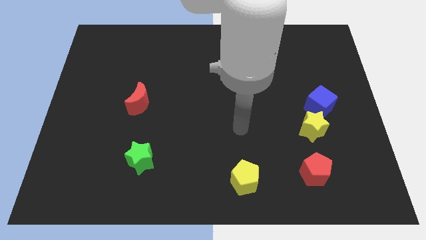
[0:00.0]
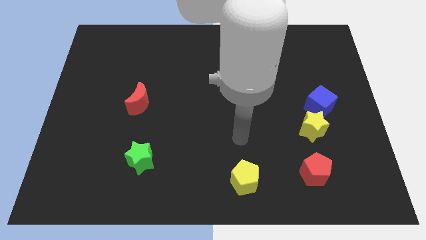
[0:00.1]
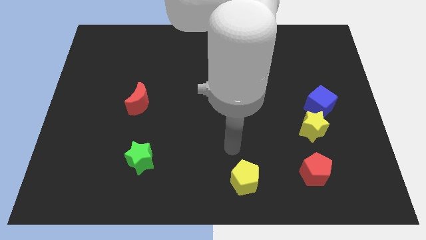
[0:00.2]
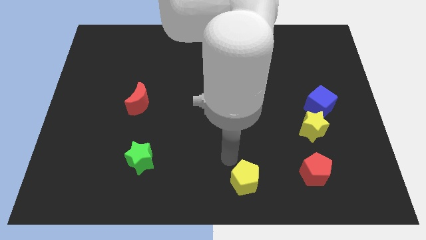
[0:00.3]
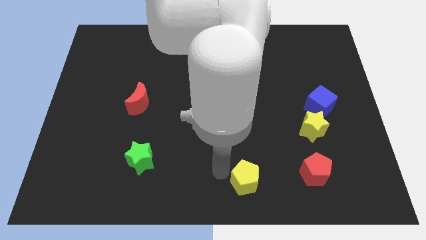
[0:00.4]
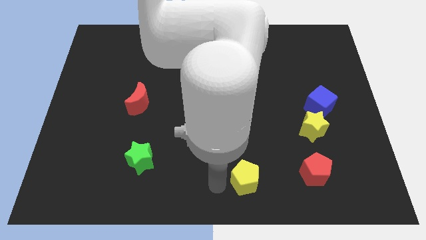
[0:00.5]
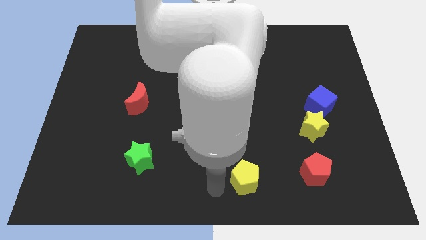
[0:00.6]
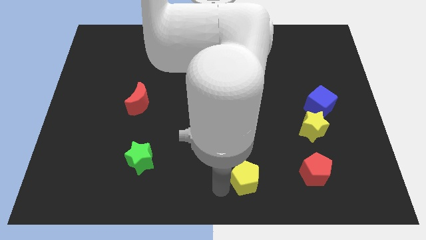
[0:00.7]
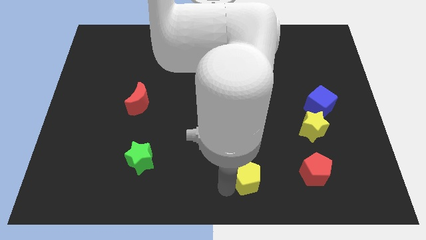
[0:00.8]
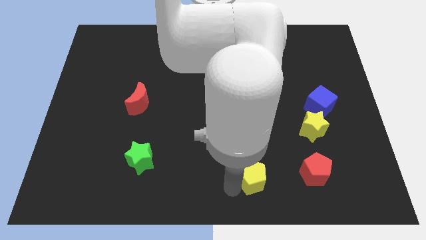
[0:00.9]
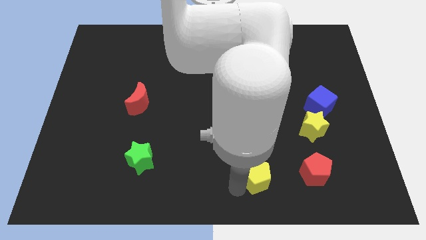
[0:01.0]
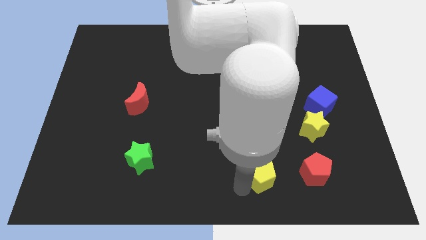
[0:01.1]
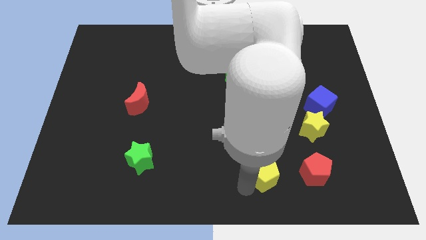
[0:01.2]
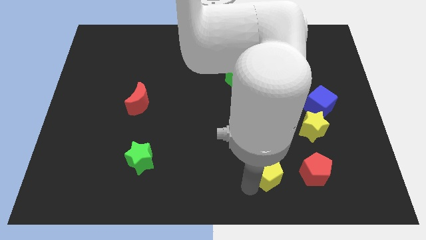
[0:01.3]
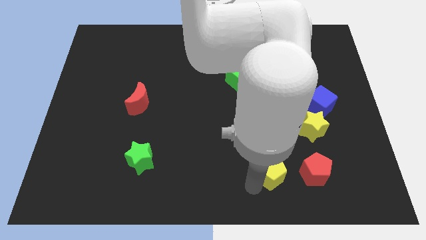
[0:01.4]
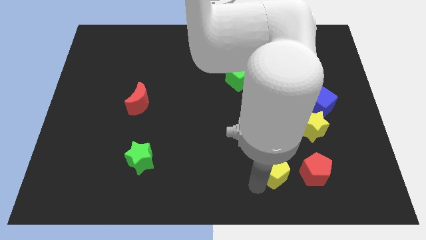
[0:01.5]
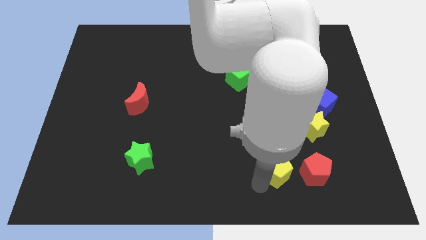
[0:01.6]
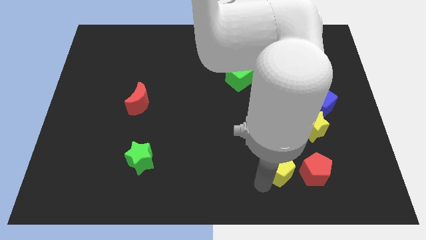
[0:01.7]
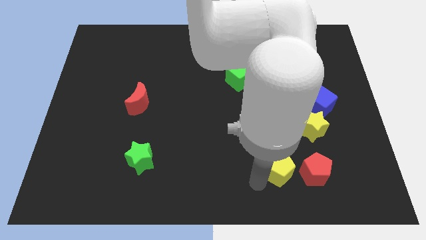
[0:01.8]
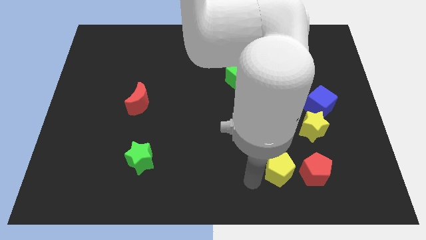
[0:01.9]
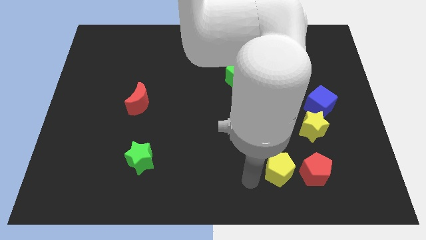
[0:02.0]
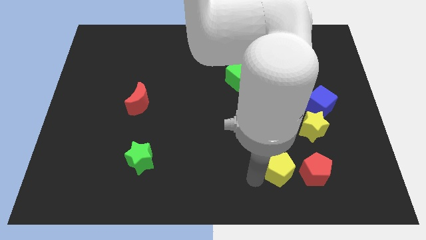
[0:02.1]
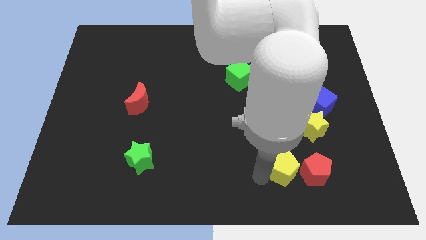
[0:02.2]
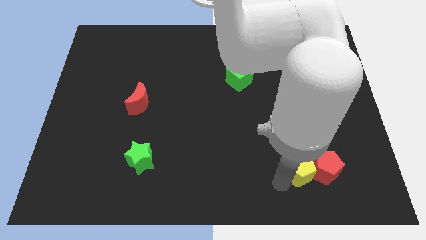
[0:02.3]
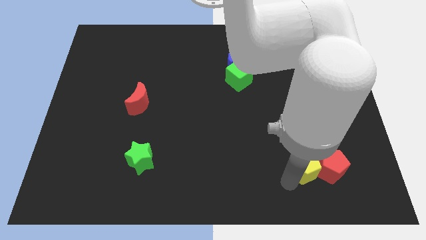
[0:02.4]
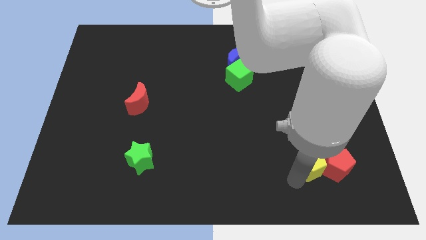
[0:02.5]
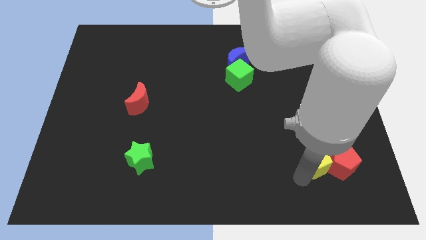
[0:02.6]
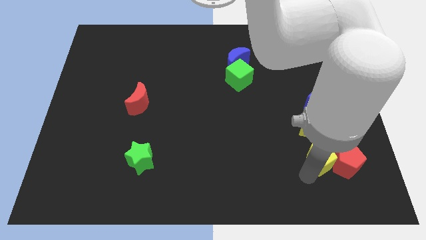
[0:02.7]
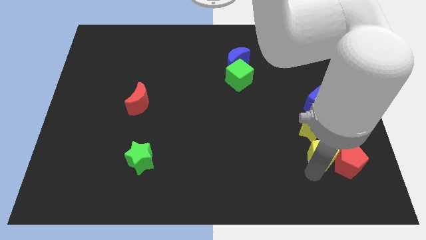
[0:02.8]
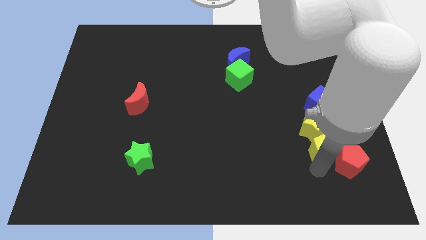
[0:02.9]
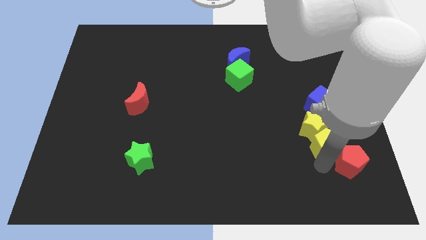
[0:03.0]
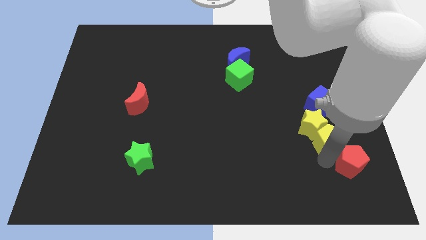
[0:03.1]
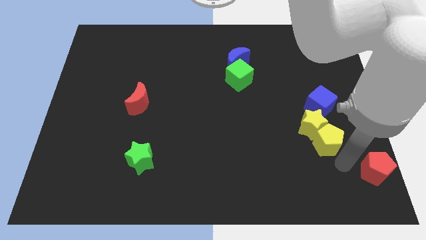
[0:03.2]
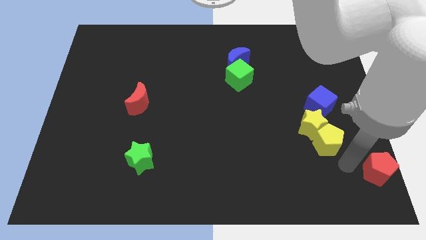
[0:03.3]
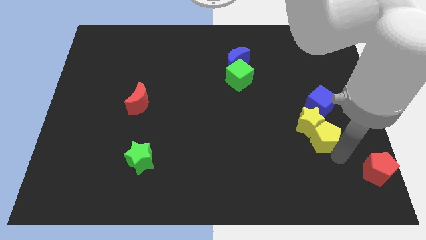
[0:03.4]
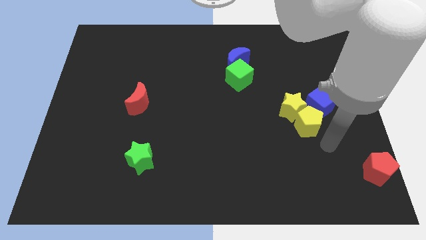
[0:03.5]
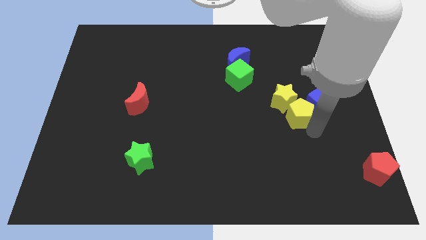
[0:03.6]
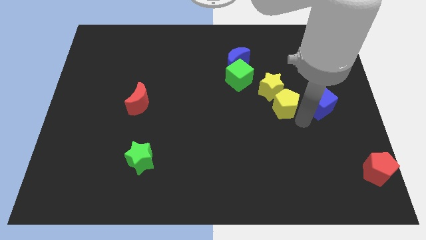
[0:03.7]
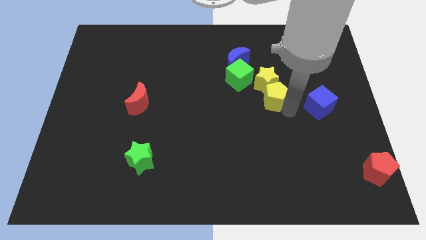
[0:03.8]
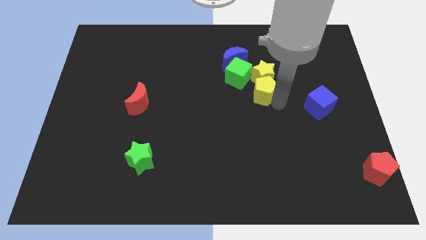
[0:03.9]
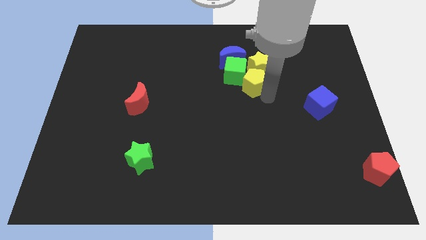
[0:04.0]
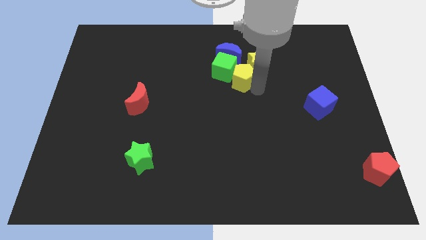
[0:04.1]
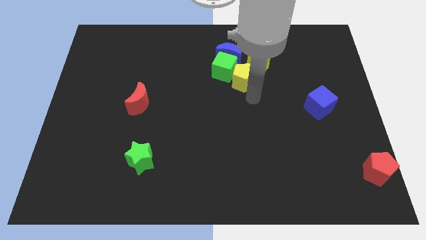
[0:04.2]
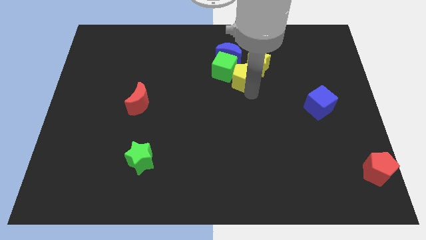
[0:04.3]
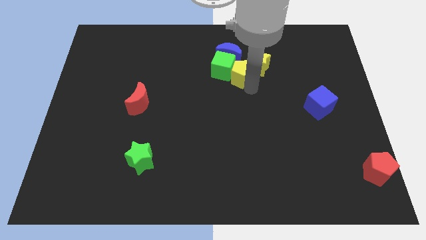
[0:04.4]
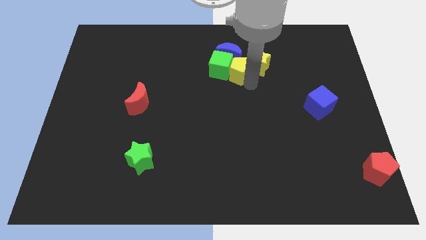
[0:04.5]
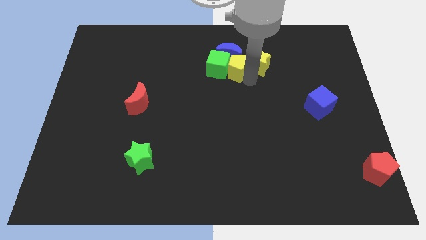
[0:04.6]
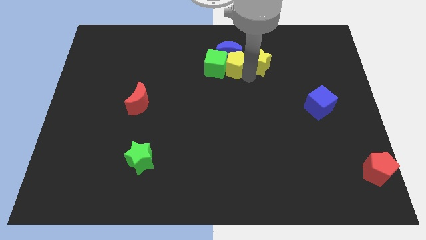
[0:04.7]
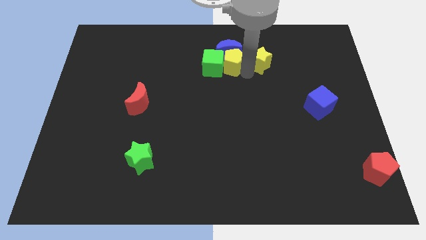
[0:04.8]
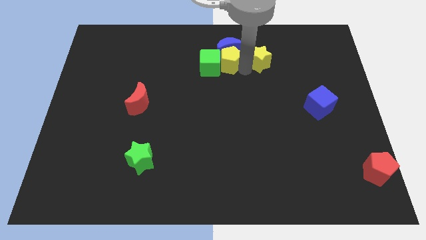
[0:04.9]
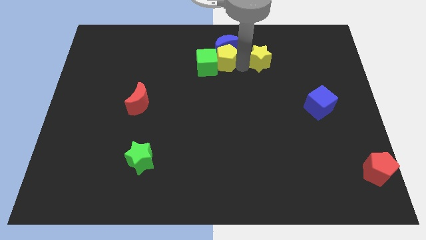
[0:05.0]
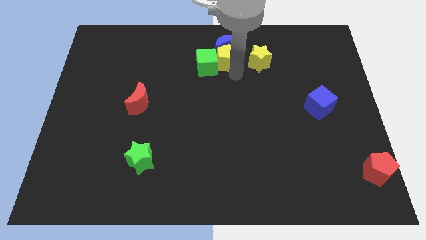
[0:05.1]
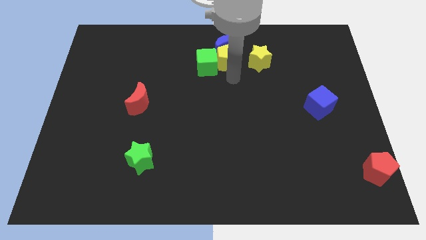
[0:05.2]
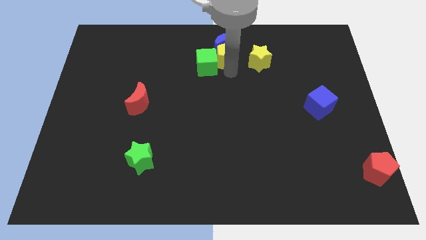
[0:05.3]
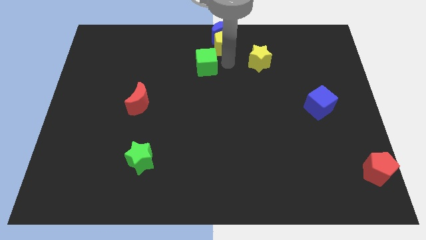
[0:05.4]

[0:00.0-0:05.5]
put the yellow pentagon to the top

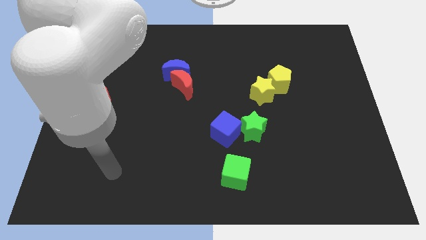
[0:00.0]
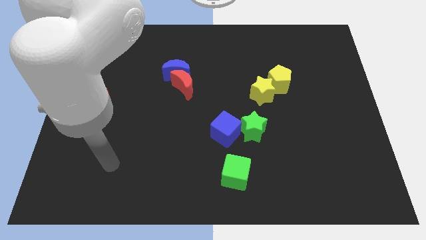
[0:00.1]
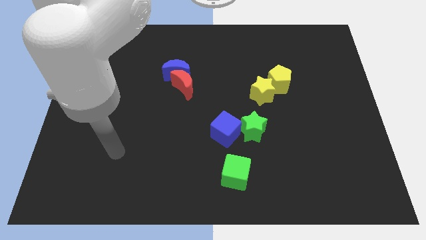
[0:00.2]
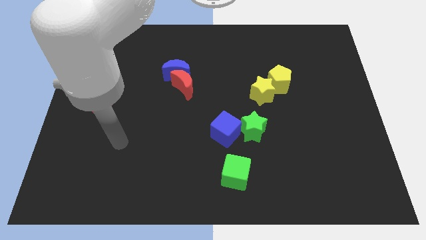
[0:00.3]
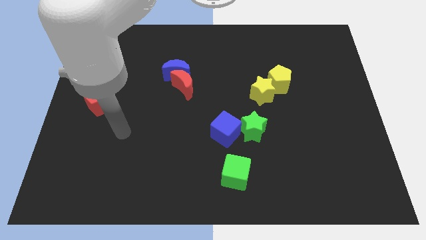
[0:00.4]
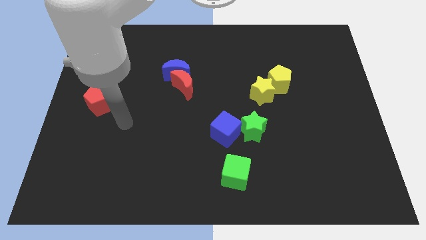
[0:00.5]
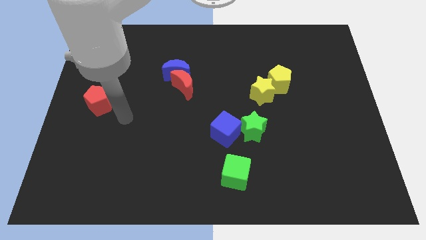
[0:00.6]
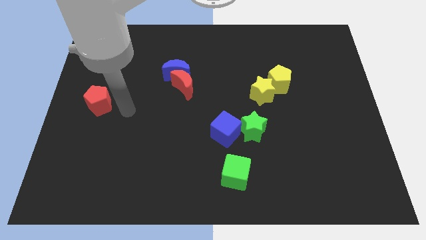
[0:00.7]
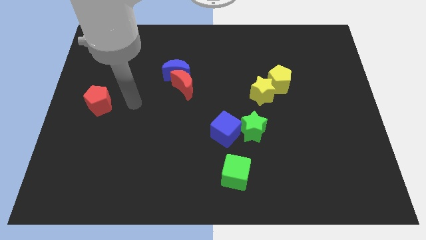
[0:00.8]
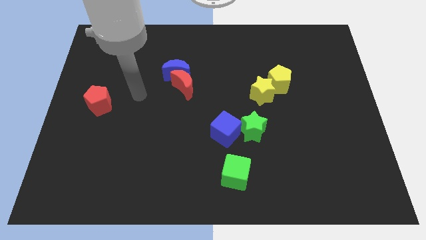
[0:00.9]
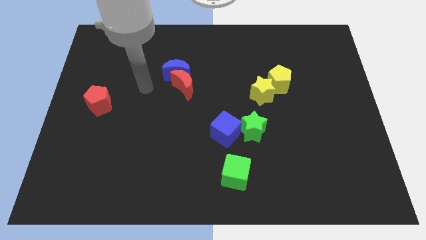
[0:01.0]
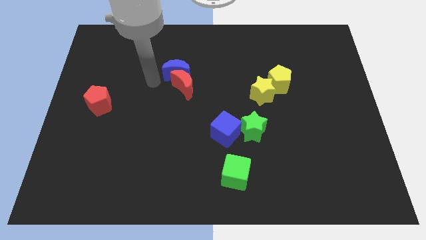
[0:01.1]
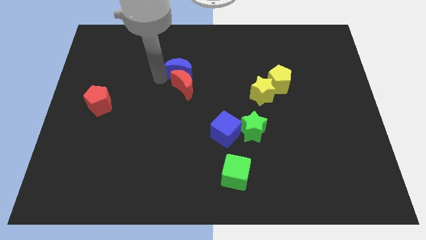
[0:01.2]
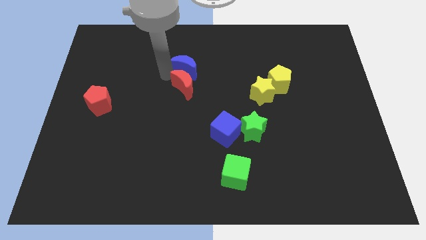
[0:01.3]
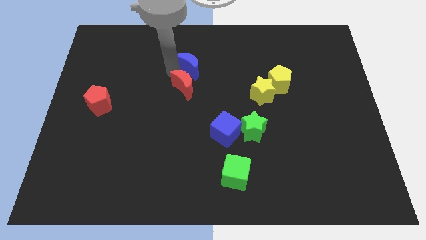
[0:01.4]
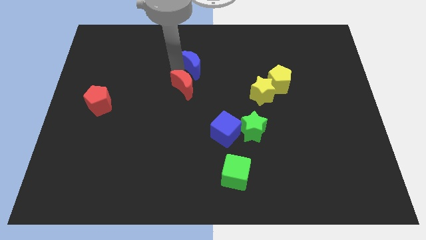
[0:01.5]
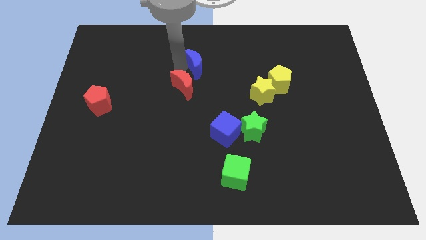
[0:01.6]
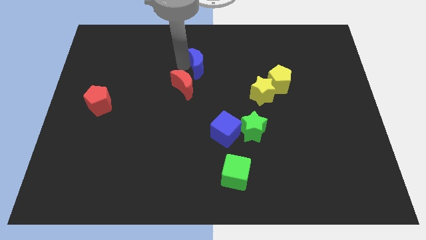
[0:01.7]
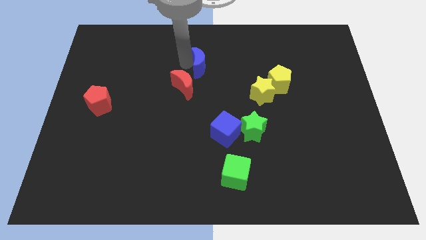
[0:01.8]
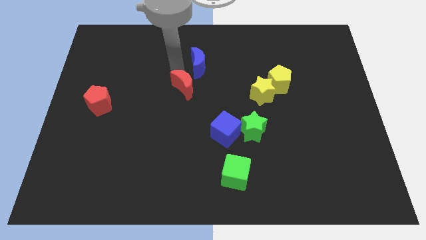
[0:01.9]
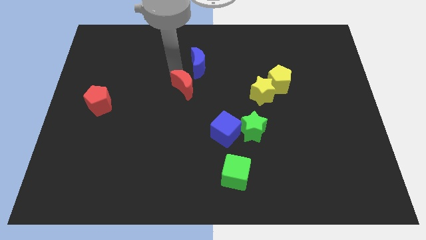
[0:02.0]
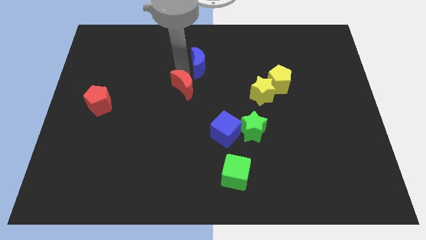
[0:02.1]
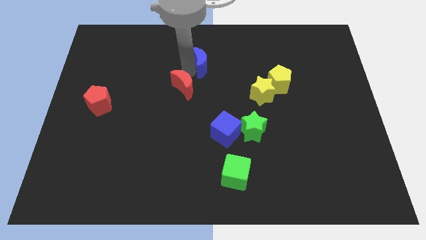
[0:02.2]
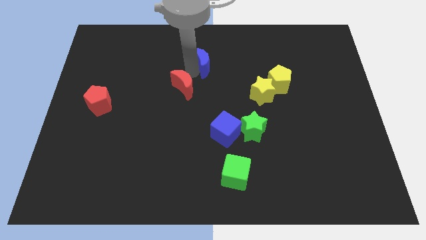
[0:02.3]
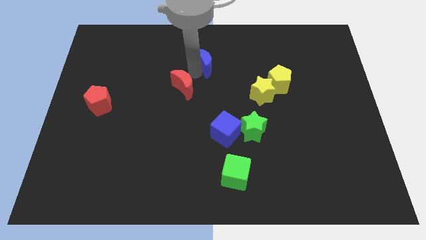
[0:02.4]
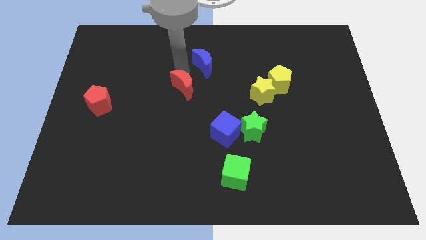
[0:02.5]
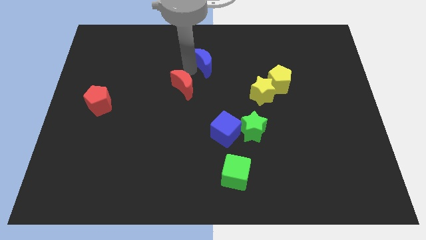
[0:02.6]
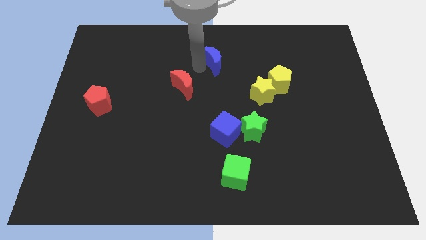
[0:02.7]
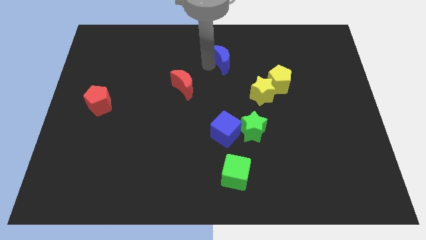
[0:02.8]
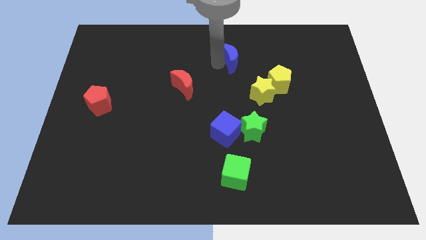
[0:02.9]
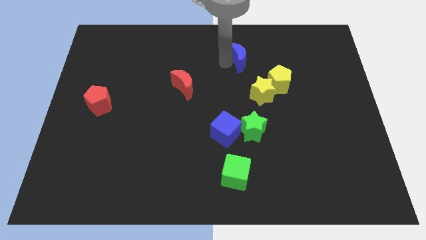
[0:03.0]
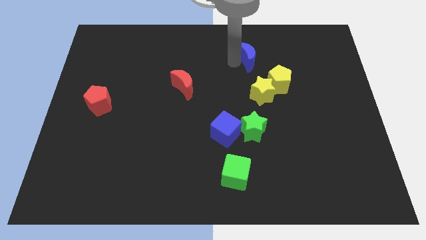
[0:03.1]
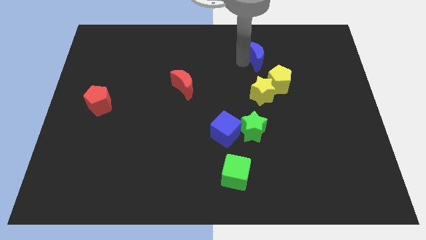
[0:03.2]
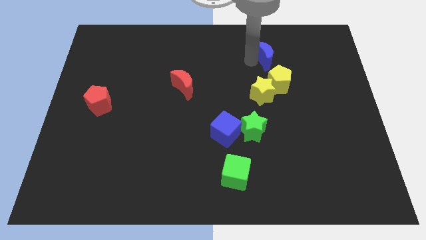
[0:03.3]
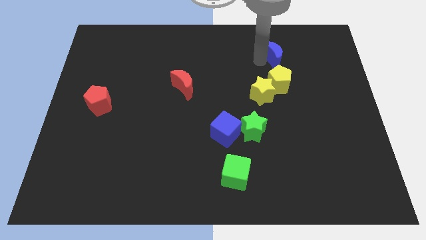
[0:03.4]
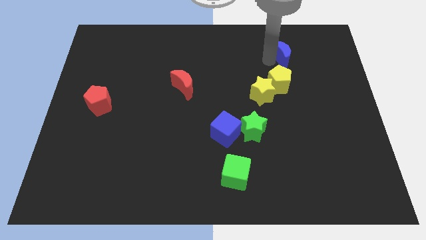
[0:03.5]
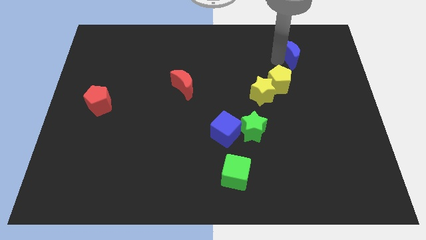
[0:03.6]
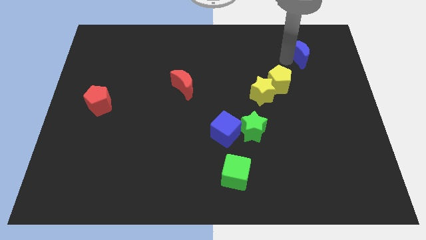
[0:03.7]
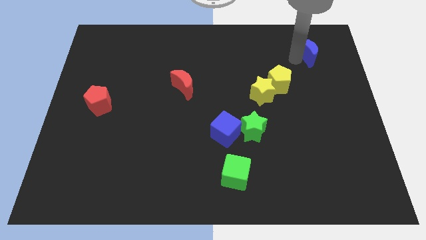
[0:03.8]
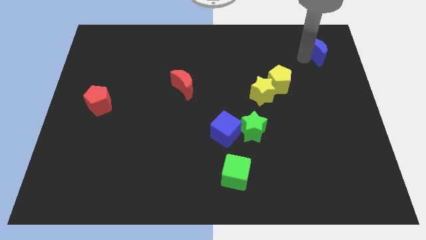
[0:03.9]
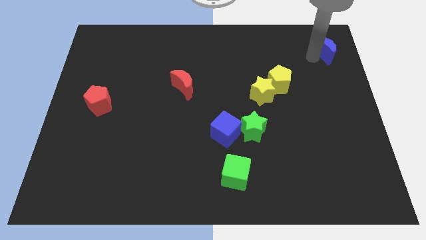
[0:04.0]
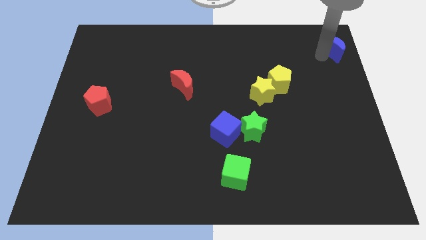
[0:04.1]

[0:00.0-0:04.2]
slide the blue moon to the top right corner
